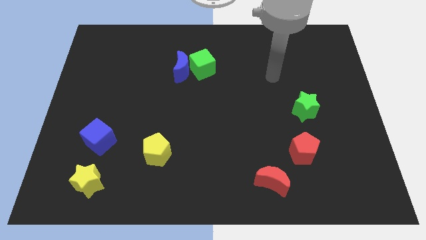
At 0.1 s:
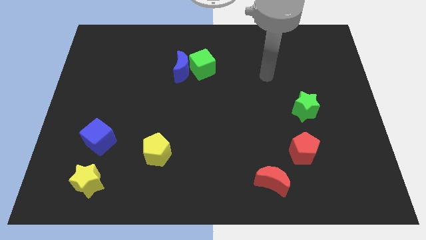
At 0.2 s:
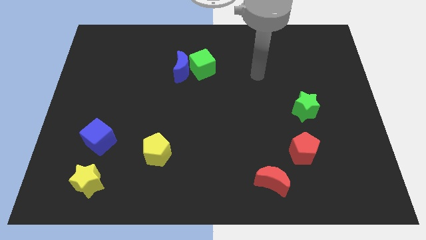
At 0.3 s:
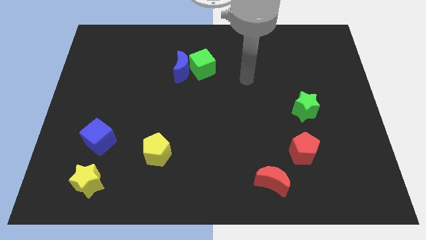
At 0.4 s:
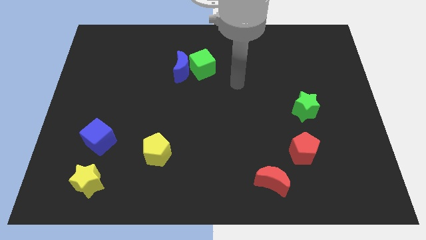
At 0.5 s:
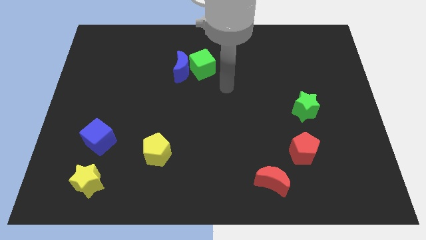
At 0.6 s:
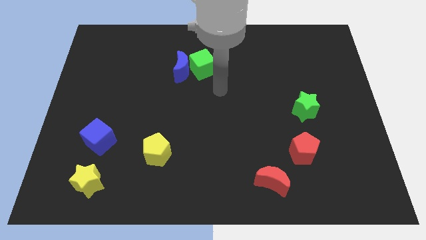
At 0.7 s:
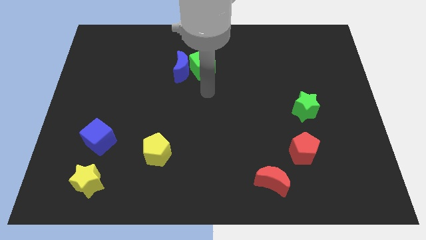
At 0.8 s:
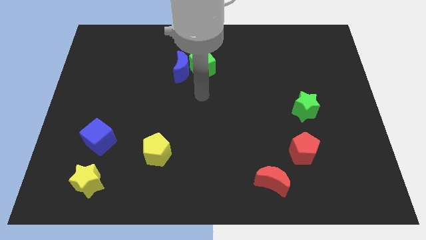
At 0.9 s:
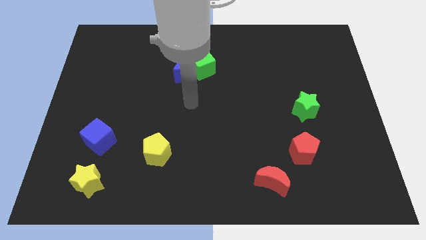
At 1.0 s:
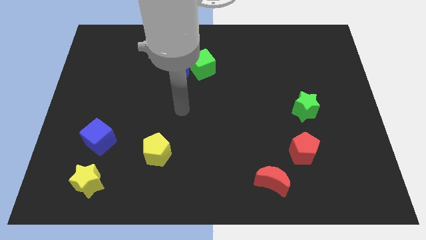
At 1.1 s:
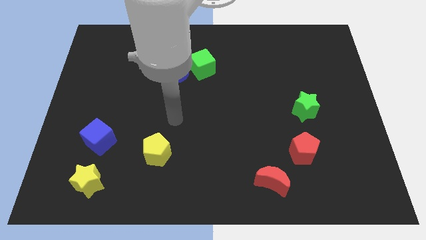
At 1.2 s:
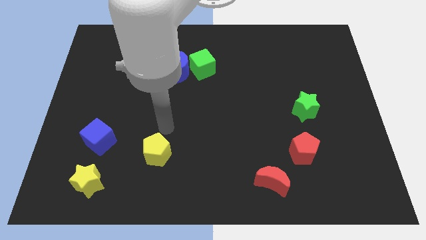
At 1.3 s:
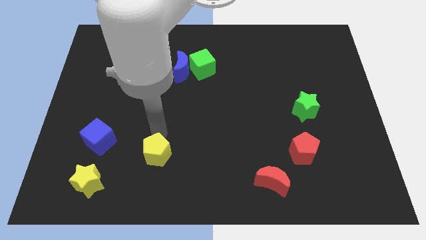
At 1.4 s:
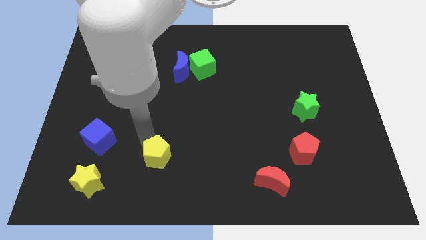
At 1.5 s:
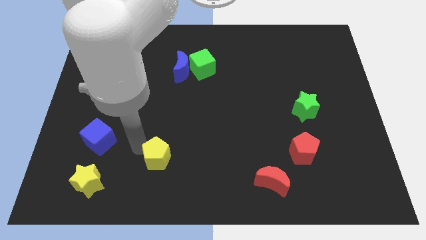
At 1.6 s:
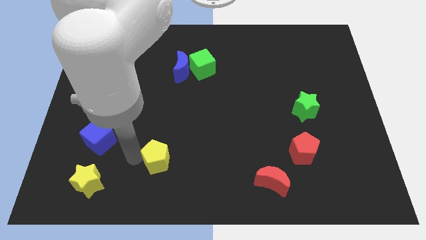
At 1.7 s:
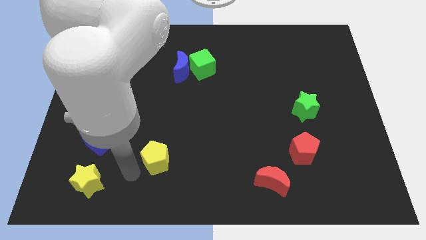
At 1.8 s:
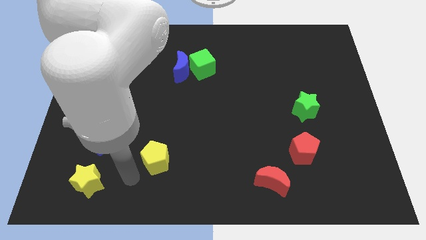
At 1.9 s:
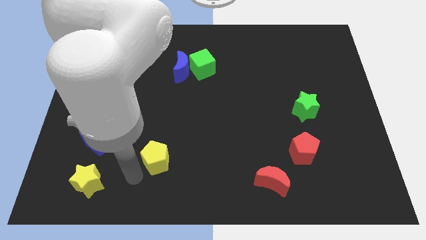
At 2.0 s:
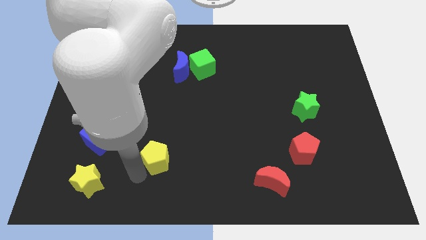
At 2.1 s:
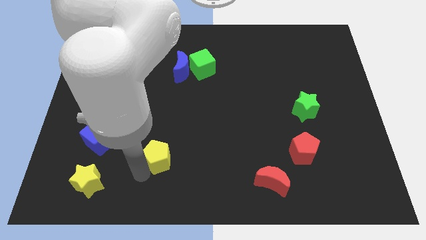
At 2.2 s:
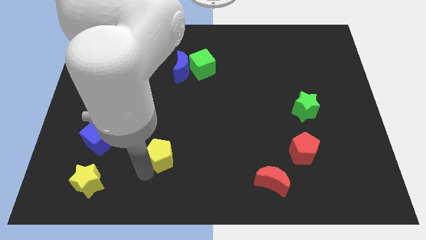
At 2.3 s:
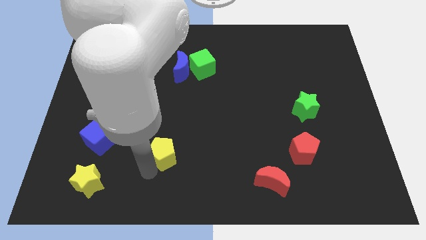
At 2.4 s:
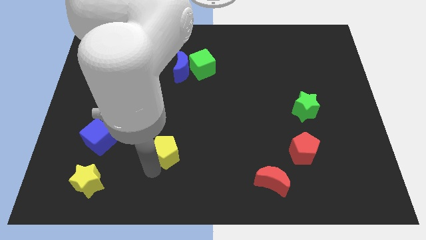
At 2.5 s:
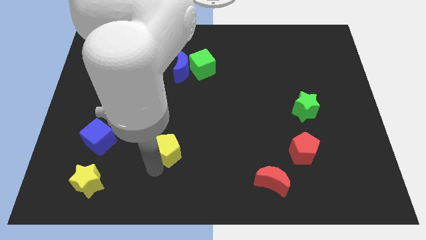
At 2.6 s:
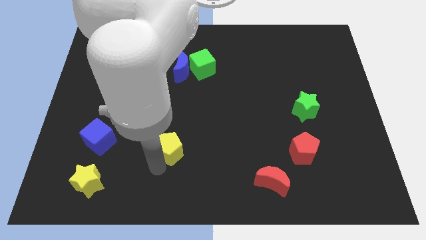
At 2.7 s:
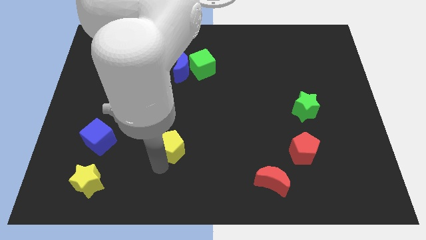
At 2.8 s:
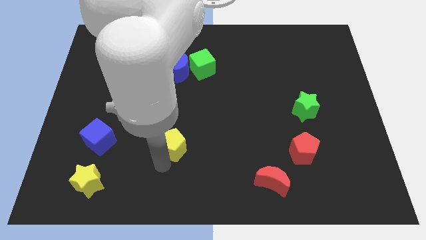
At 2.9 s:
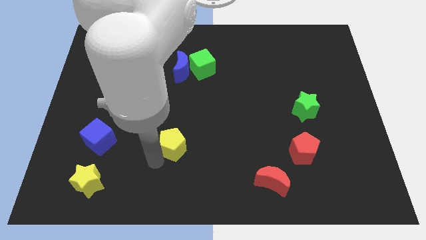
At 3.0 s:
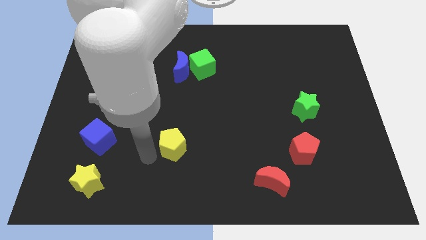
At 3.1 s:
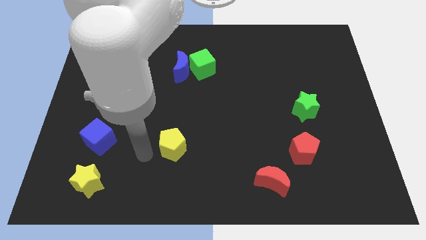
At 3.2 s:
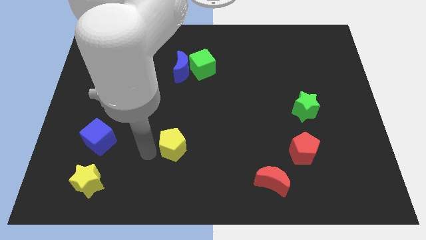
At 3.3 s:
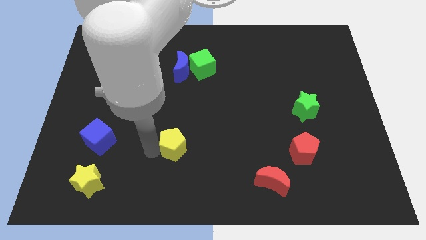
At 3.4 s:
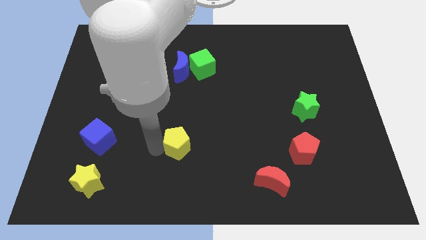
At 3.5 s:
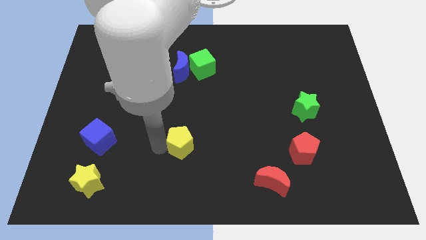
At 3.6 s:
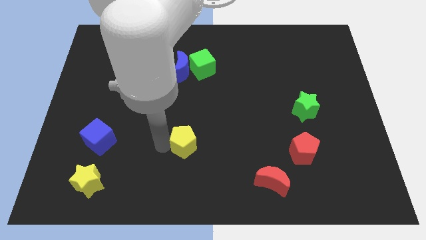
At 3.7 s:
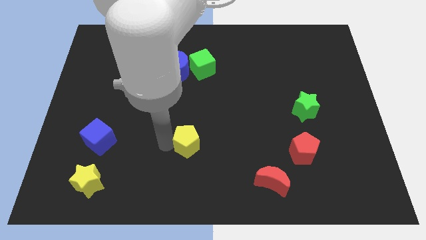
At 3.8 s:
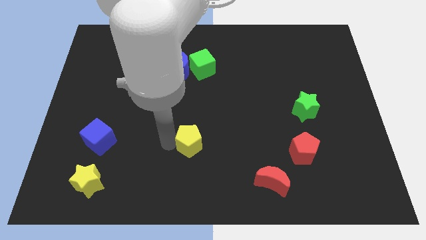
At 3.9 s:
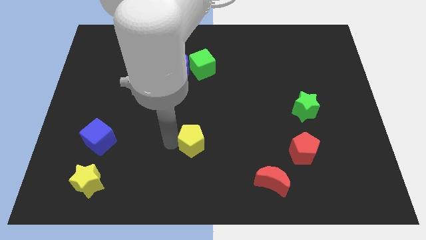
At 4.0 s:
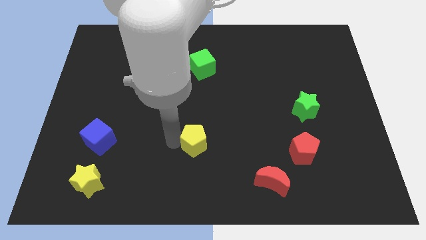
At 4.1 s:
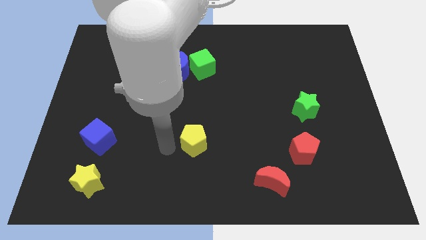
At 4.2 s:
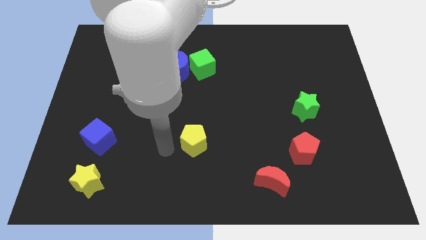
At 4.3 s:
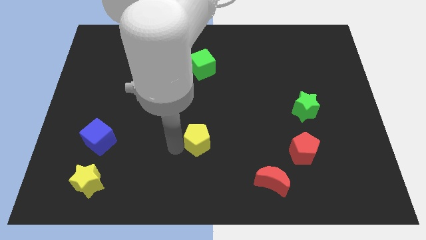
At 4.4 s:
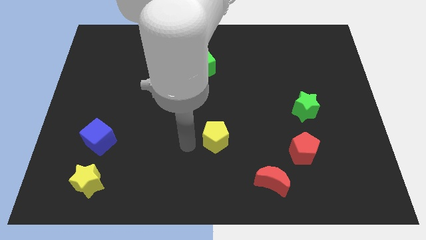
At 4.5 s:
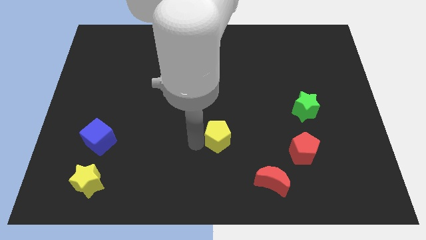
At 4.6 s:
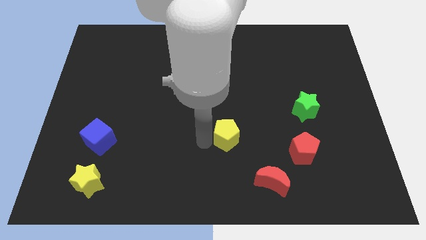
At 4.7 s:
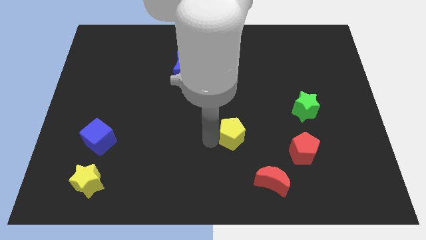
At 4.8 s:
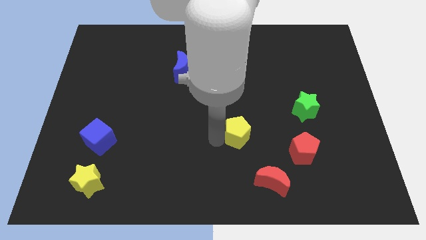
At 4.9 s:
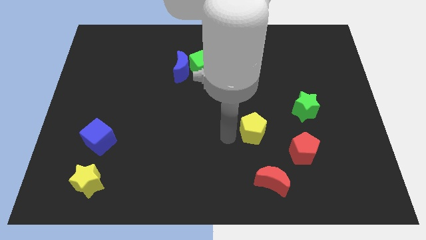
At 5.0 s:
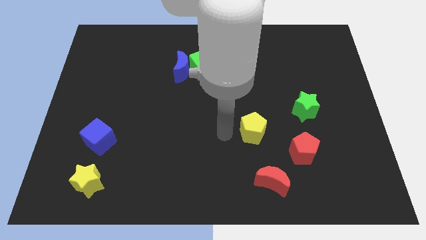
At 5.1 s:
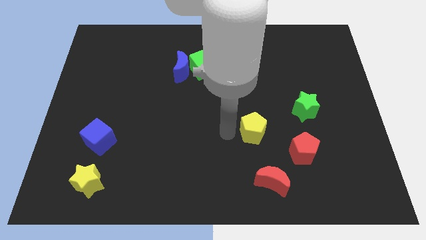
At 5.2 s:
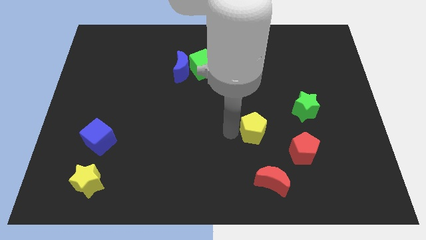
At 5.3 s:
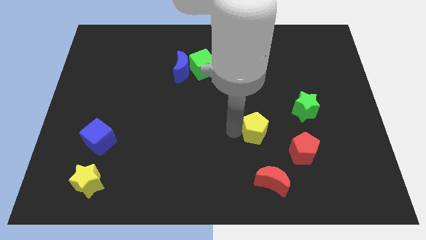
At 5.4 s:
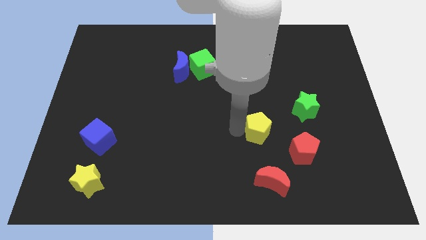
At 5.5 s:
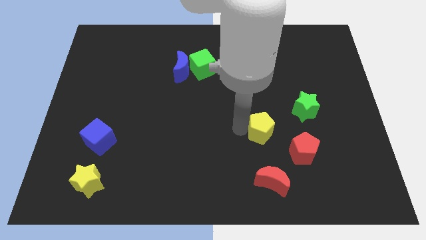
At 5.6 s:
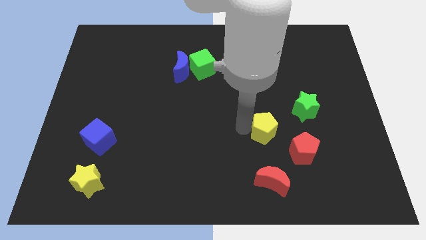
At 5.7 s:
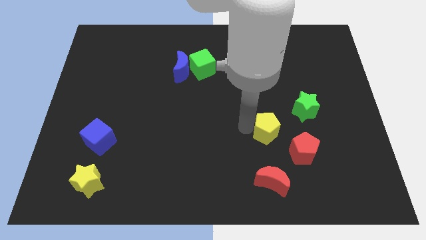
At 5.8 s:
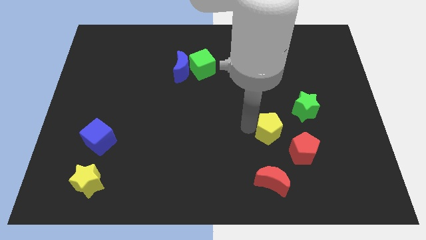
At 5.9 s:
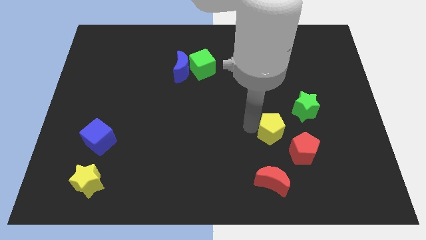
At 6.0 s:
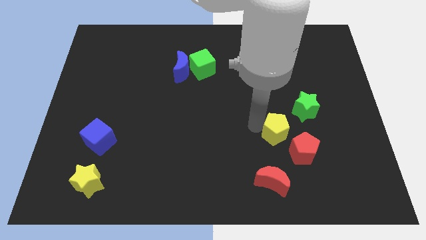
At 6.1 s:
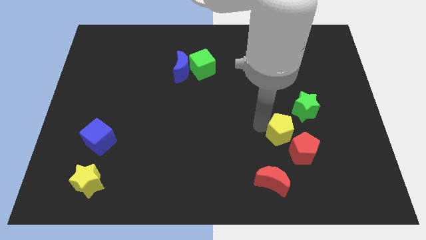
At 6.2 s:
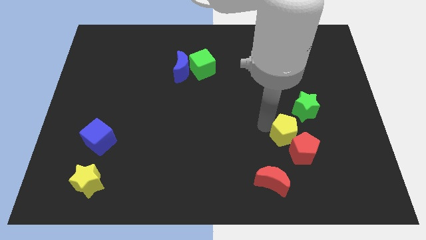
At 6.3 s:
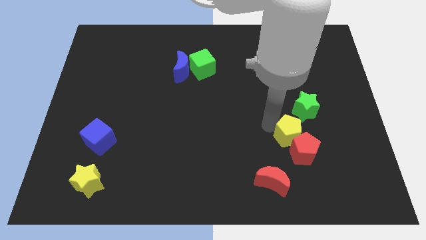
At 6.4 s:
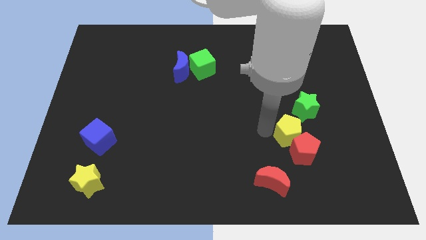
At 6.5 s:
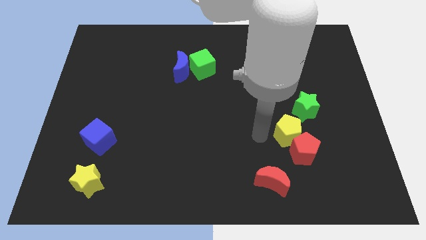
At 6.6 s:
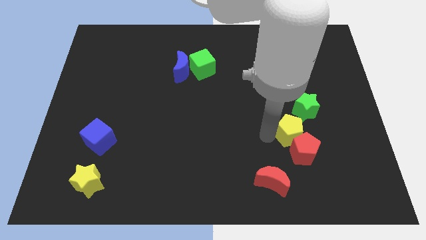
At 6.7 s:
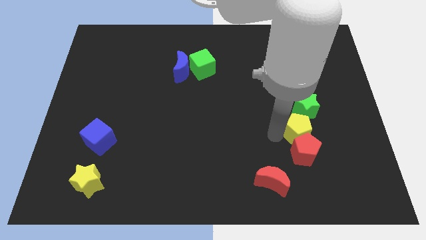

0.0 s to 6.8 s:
push the yellow pentagon to the top right side of the red pentagon

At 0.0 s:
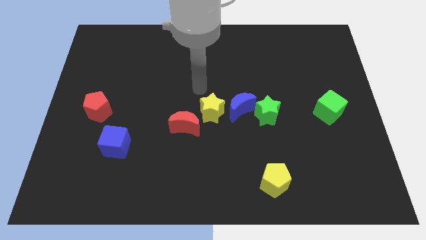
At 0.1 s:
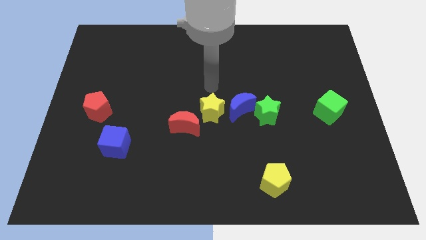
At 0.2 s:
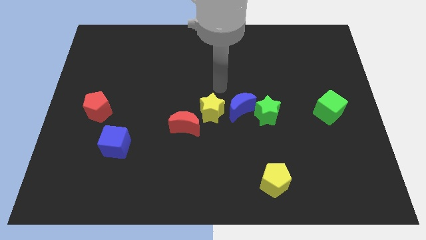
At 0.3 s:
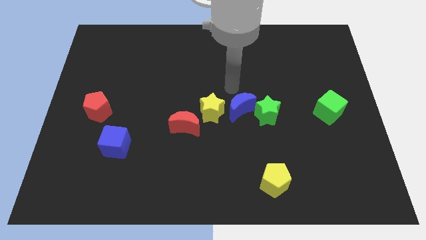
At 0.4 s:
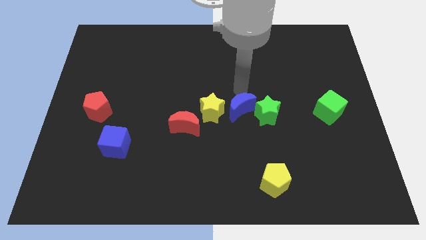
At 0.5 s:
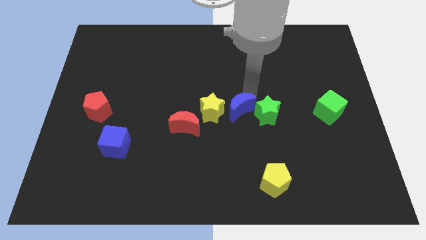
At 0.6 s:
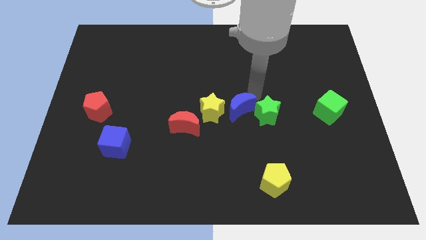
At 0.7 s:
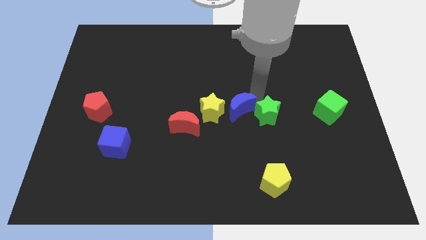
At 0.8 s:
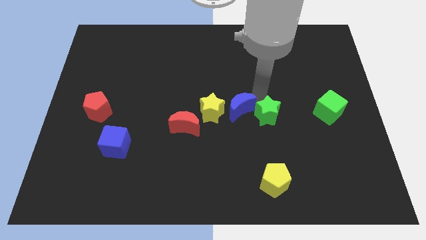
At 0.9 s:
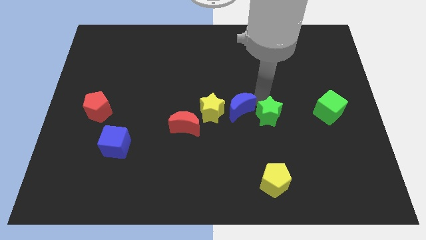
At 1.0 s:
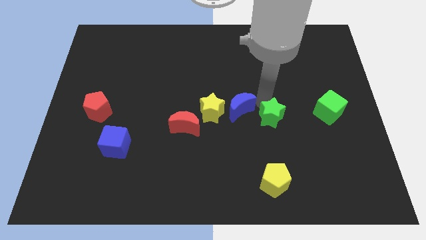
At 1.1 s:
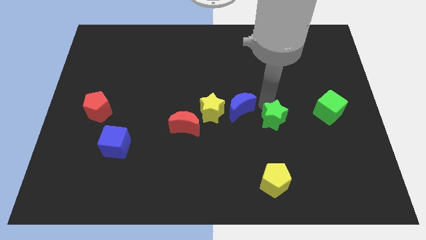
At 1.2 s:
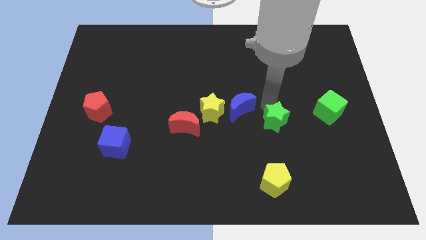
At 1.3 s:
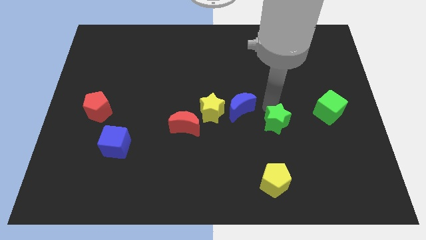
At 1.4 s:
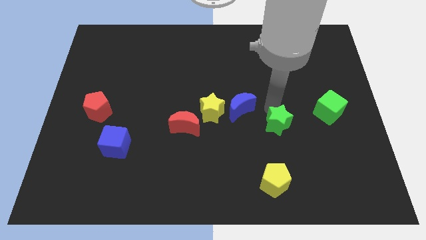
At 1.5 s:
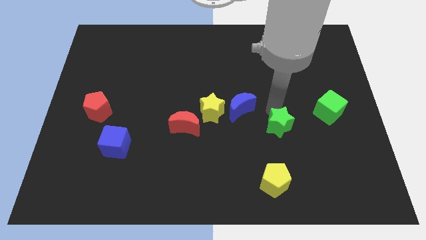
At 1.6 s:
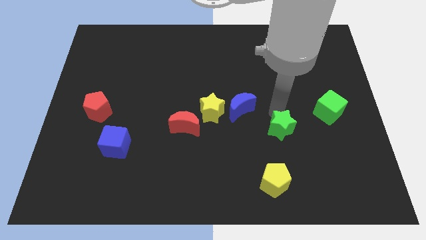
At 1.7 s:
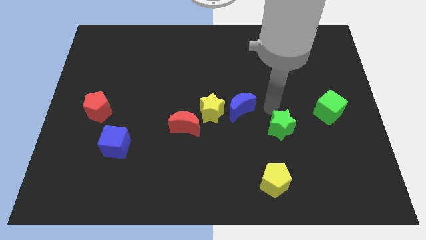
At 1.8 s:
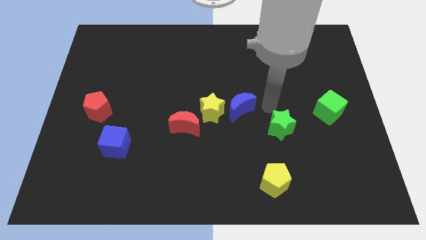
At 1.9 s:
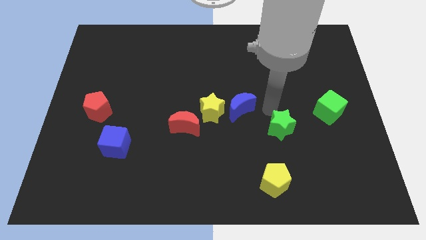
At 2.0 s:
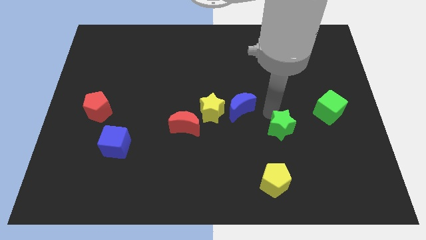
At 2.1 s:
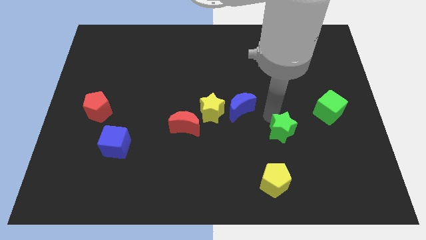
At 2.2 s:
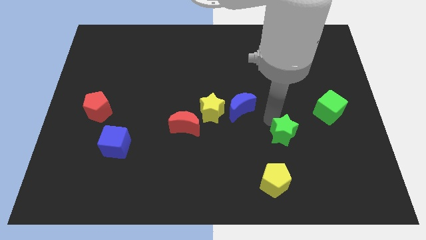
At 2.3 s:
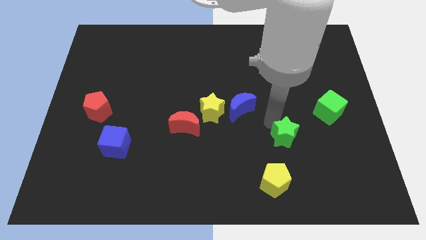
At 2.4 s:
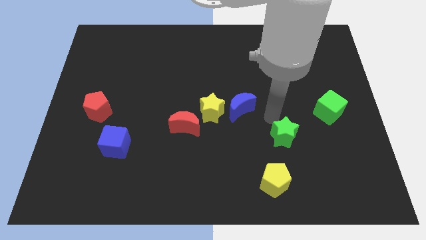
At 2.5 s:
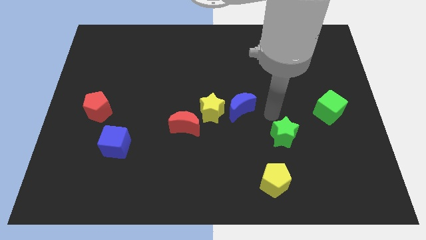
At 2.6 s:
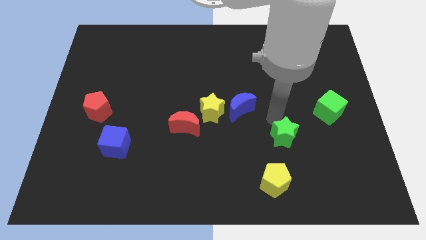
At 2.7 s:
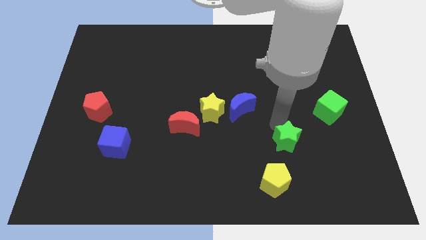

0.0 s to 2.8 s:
slide the green star diagonally up and to the right of the yellow pentagon
